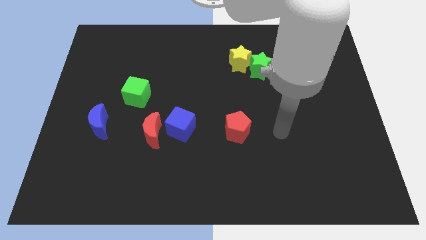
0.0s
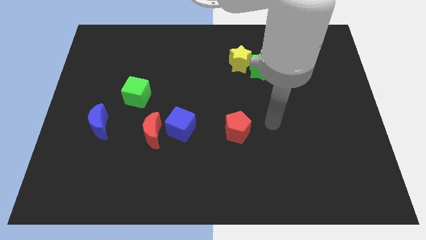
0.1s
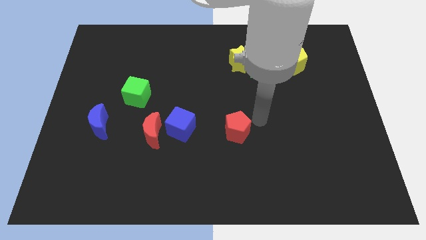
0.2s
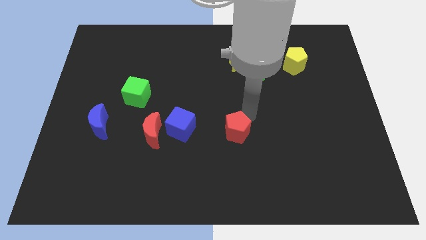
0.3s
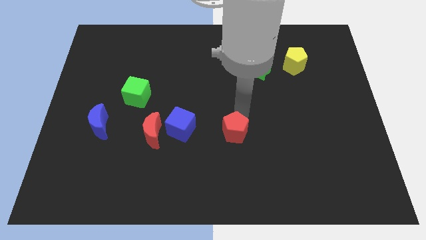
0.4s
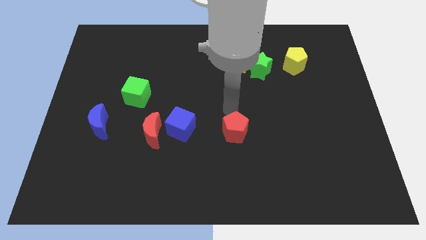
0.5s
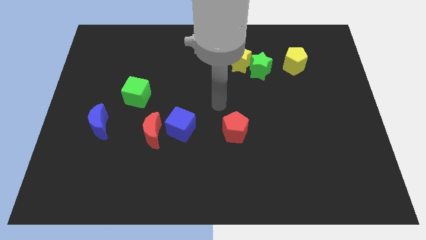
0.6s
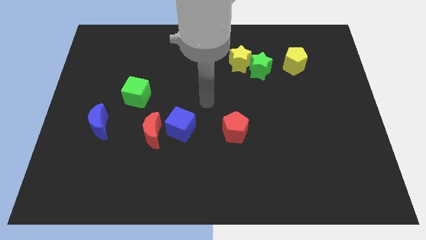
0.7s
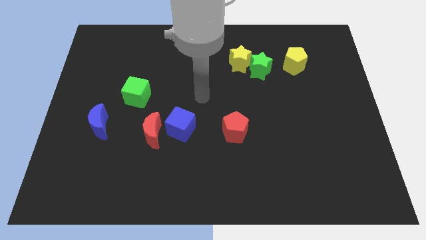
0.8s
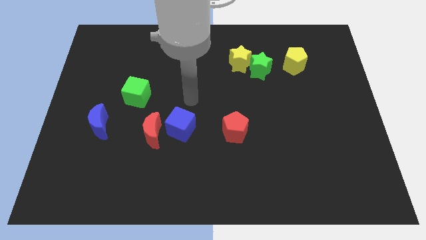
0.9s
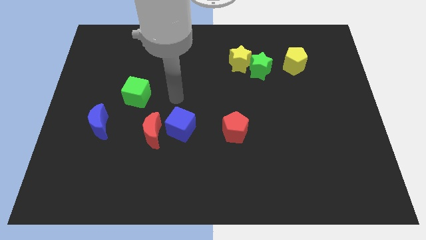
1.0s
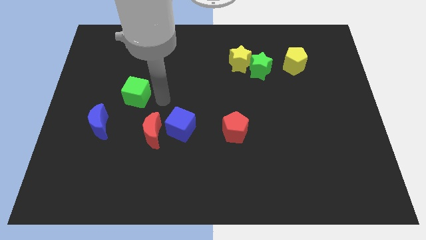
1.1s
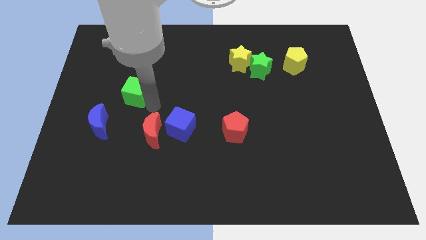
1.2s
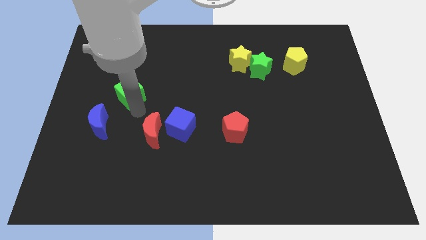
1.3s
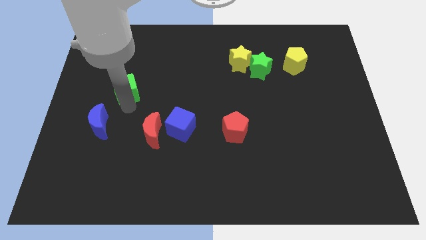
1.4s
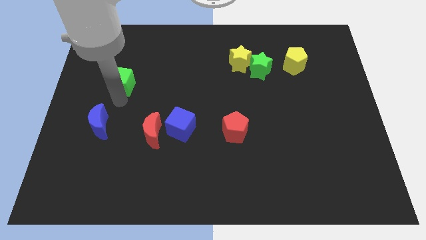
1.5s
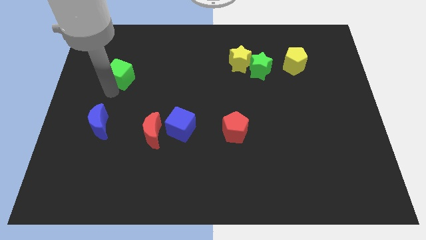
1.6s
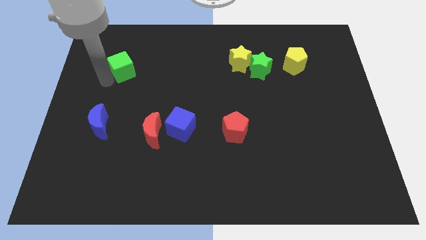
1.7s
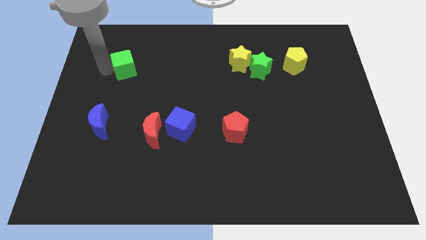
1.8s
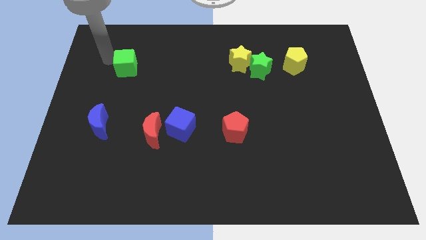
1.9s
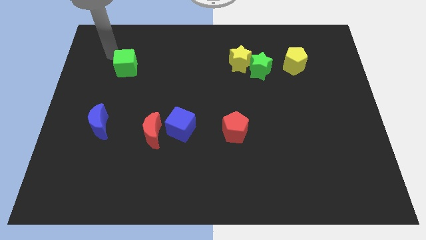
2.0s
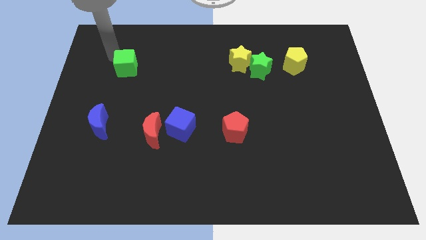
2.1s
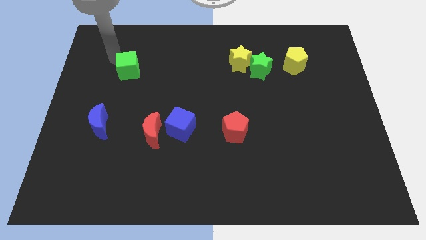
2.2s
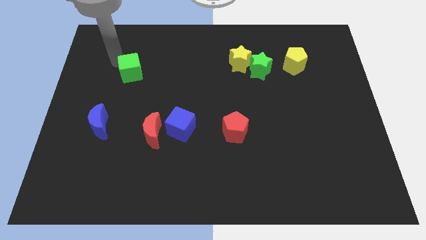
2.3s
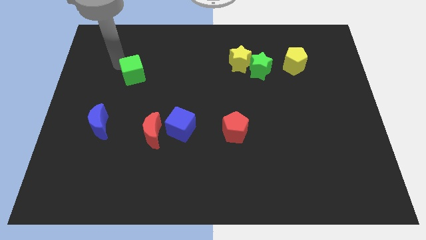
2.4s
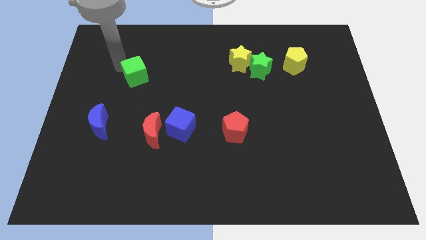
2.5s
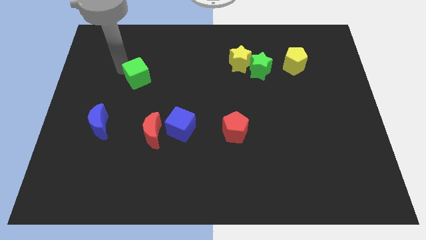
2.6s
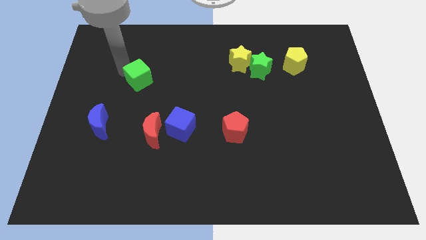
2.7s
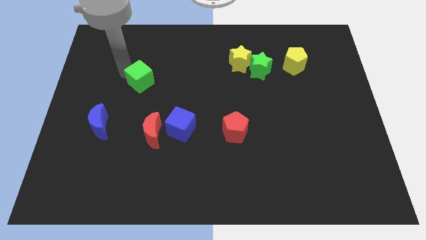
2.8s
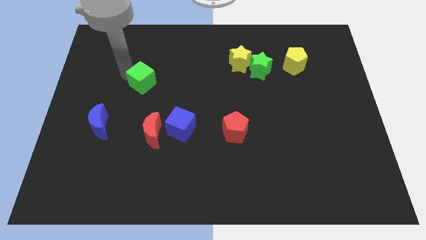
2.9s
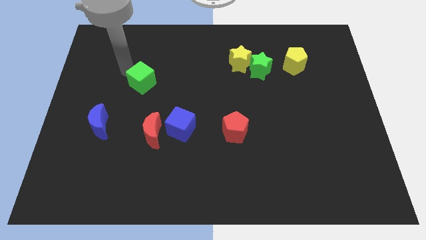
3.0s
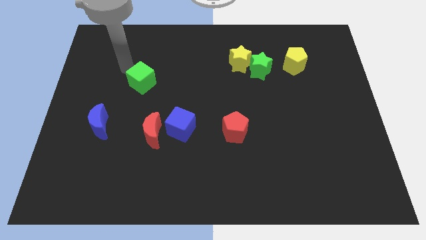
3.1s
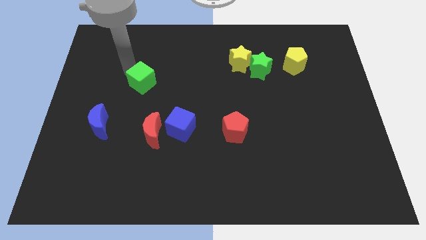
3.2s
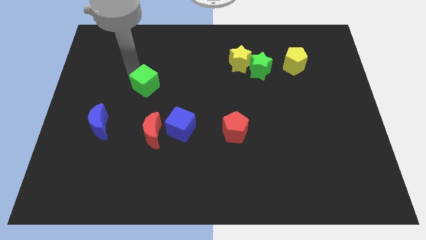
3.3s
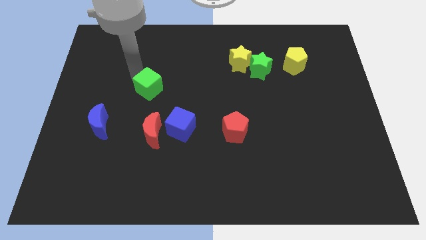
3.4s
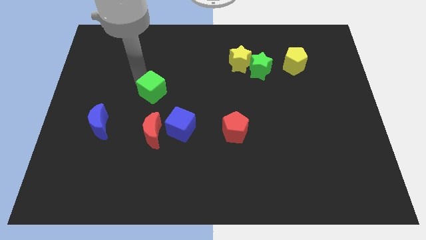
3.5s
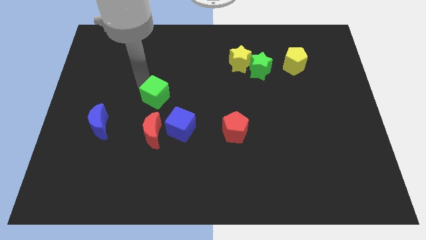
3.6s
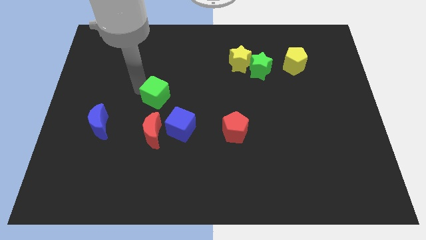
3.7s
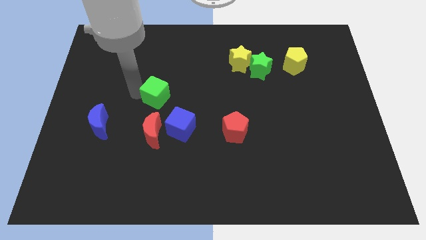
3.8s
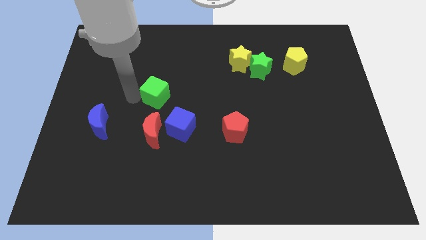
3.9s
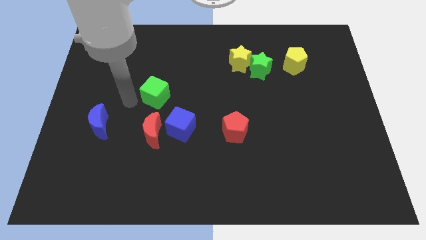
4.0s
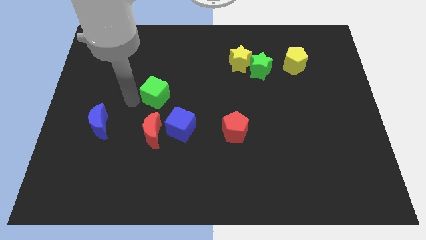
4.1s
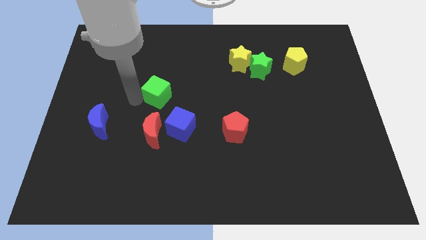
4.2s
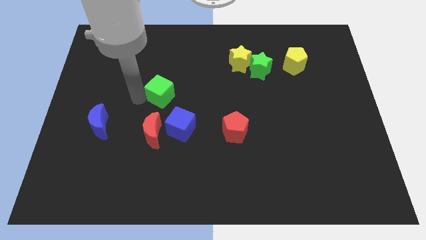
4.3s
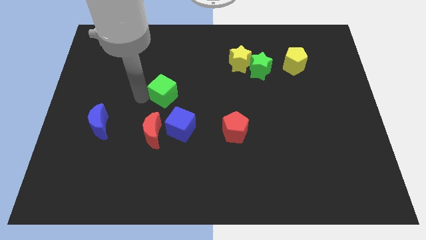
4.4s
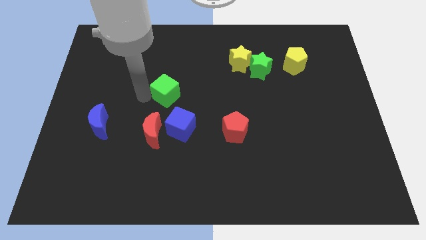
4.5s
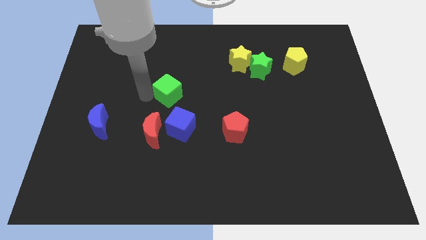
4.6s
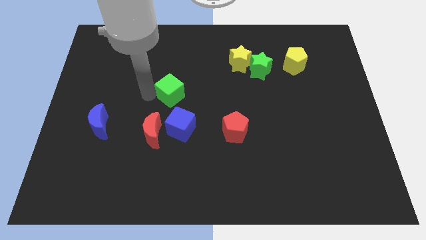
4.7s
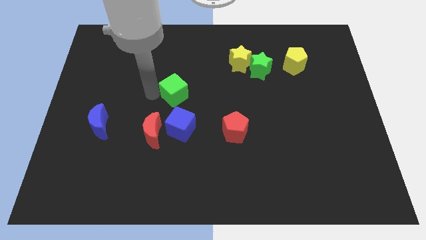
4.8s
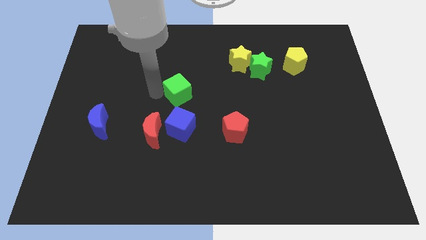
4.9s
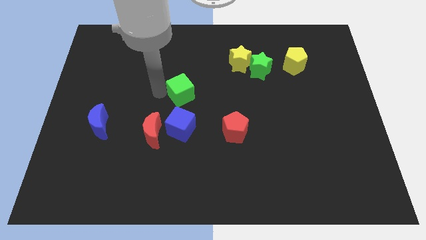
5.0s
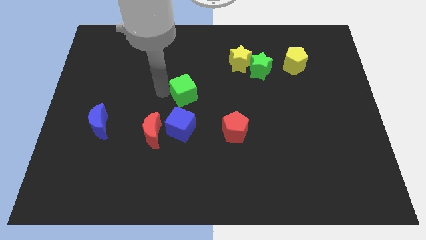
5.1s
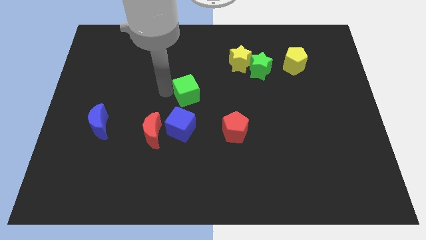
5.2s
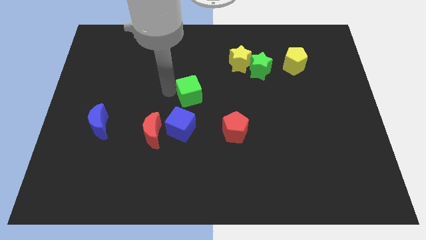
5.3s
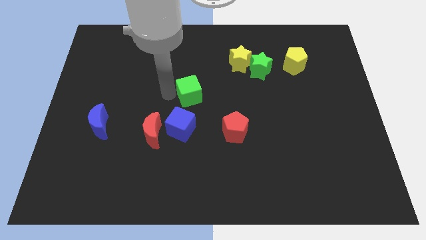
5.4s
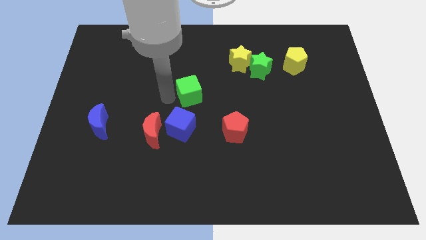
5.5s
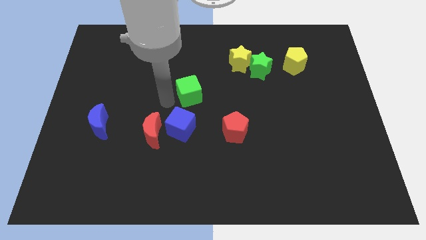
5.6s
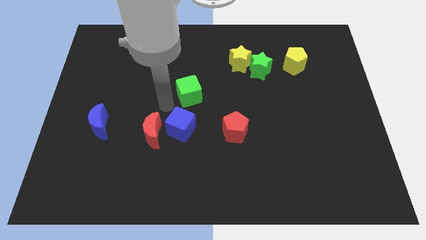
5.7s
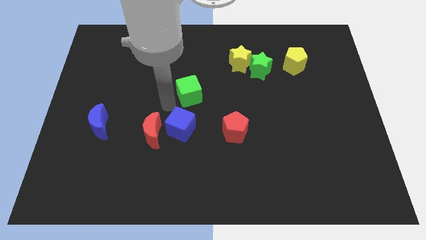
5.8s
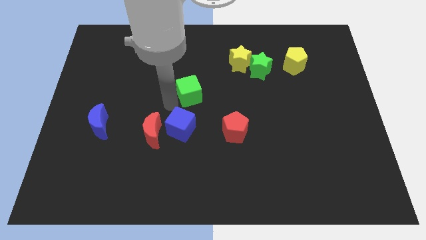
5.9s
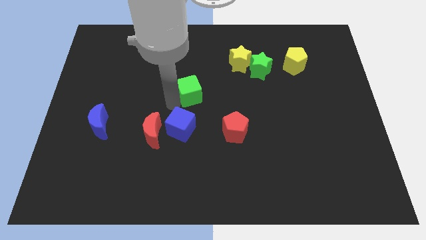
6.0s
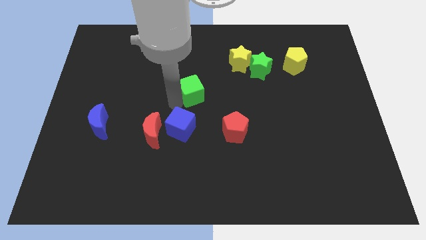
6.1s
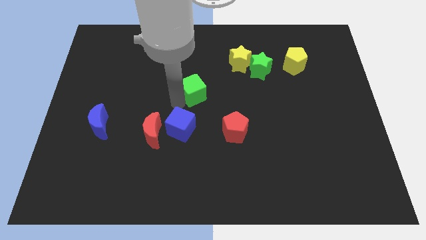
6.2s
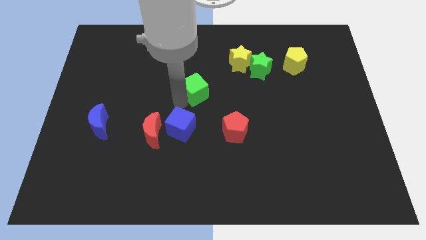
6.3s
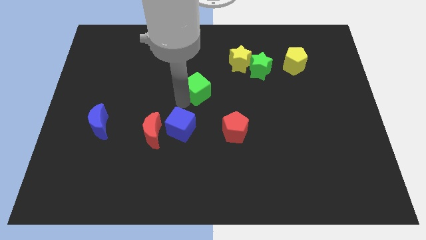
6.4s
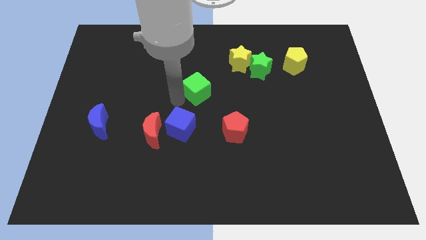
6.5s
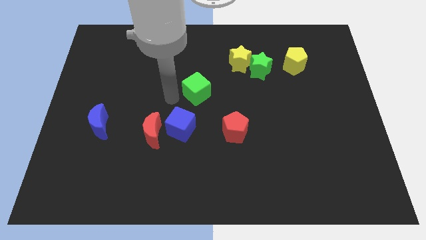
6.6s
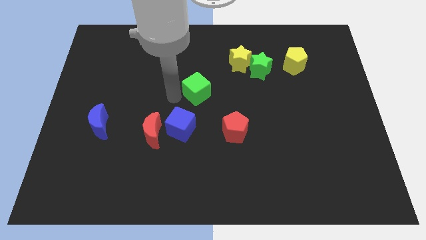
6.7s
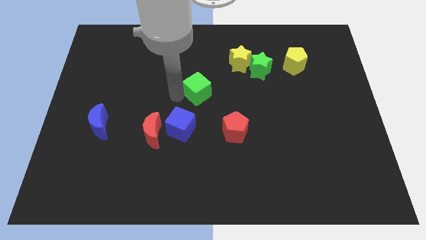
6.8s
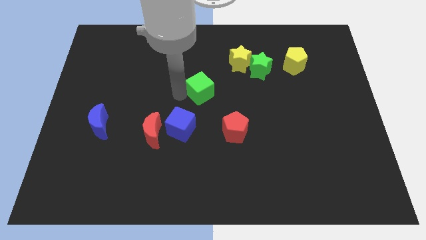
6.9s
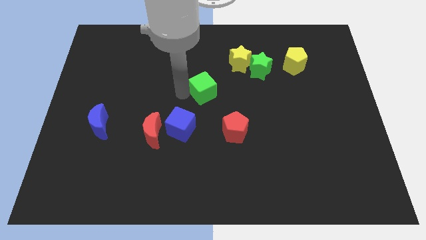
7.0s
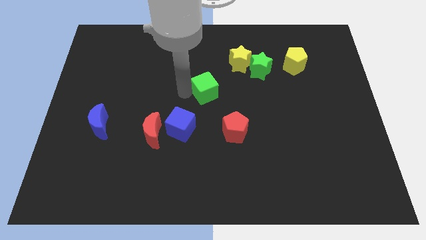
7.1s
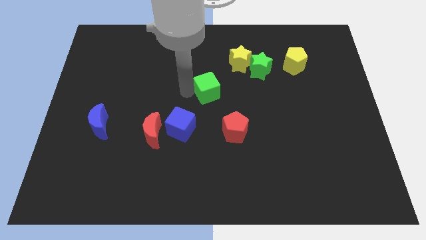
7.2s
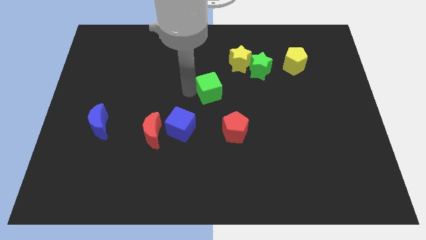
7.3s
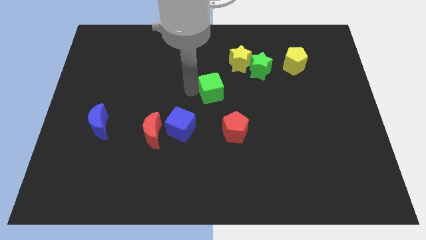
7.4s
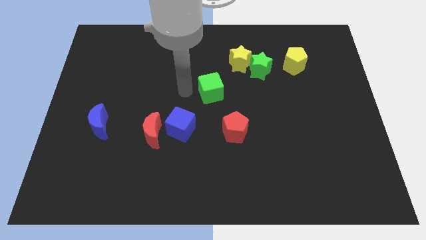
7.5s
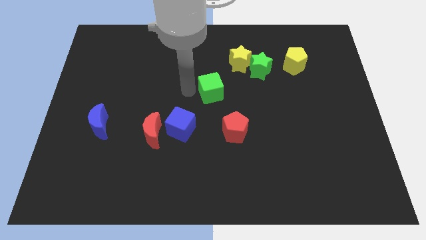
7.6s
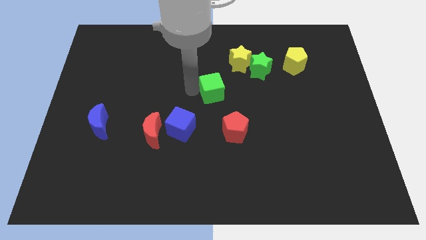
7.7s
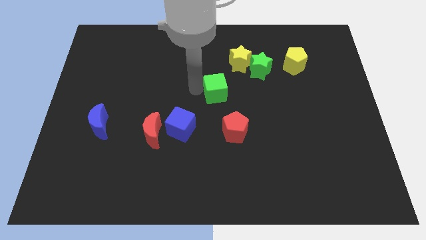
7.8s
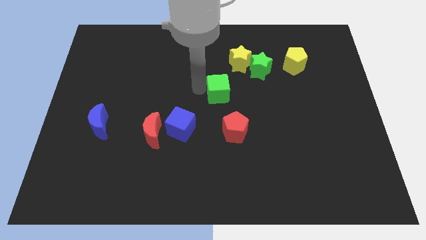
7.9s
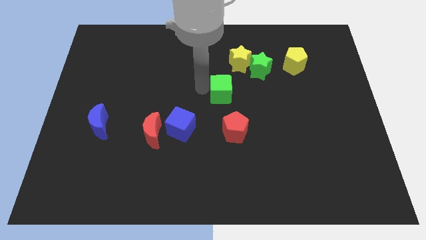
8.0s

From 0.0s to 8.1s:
push the green cube to the right
